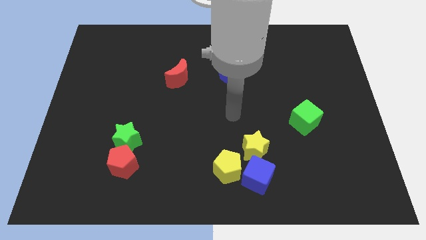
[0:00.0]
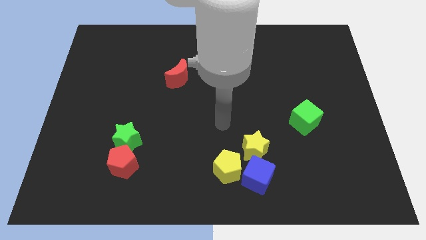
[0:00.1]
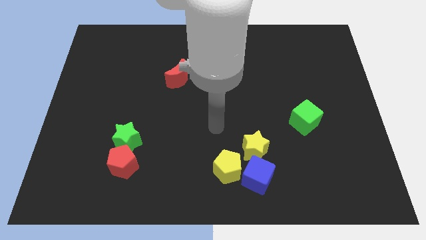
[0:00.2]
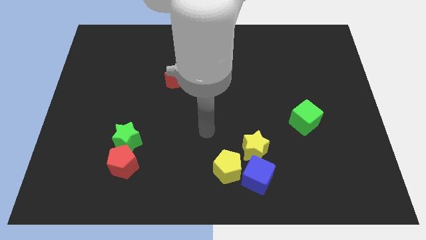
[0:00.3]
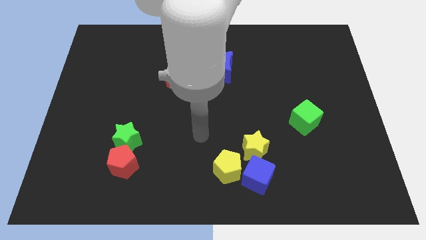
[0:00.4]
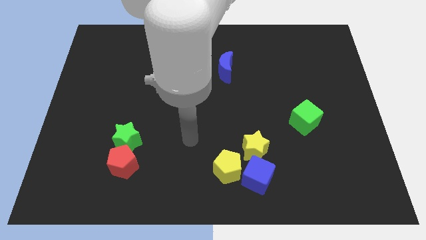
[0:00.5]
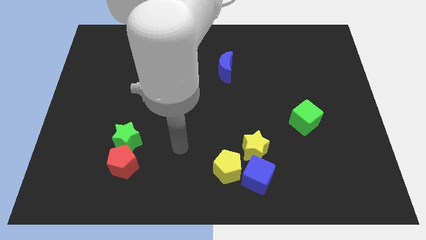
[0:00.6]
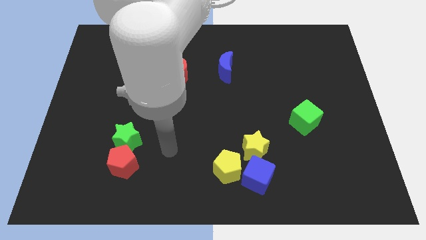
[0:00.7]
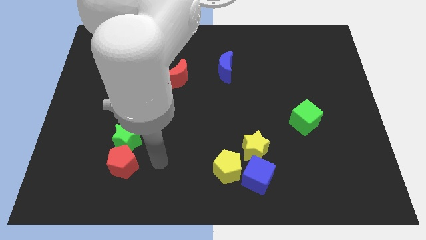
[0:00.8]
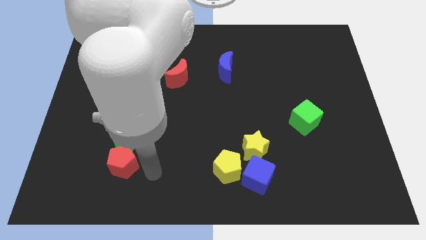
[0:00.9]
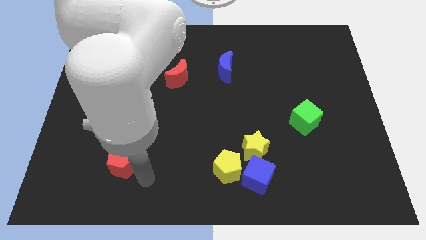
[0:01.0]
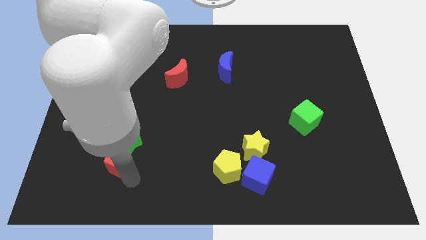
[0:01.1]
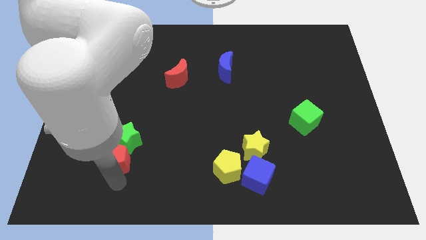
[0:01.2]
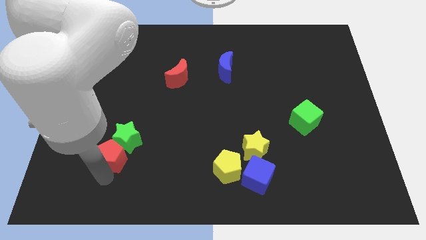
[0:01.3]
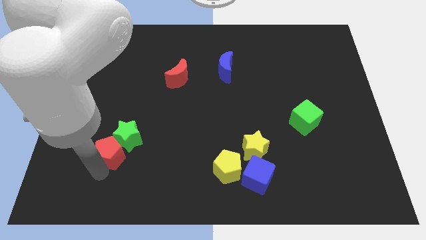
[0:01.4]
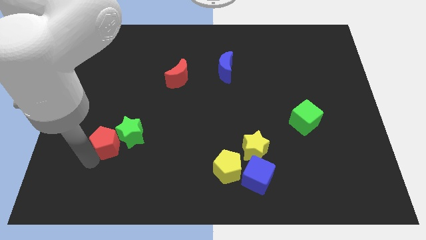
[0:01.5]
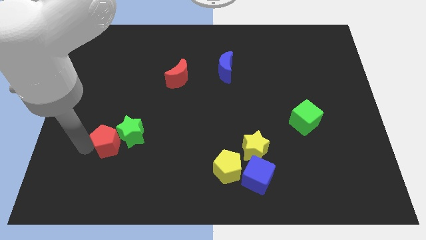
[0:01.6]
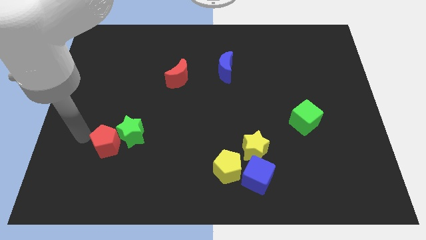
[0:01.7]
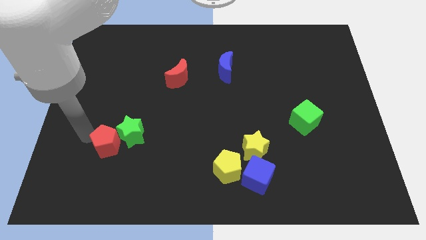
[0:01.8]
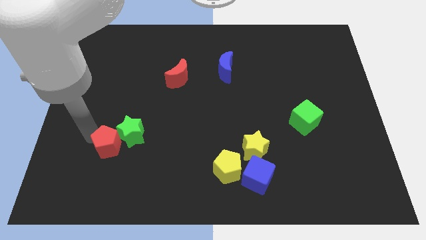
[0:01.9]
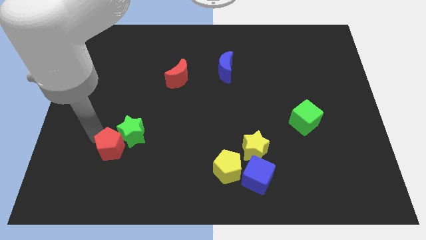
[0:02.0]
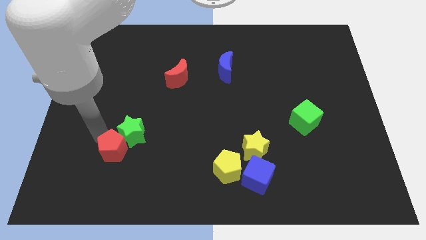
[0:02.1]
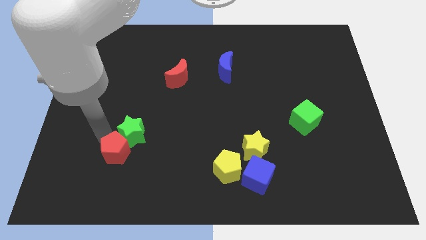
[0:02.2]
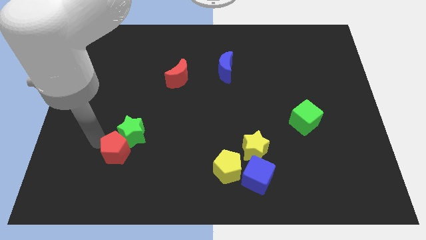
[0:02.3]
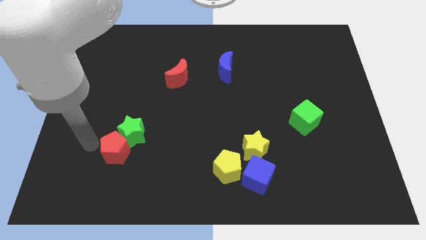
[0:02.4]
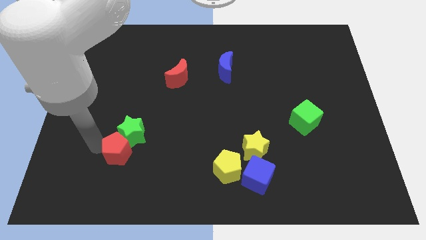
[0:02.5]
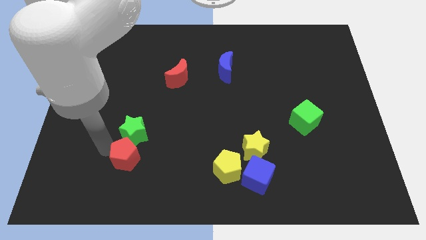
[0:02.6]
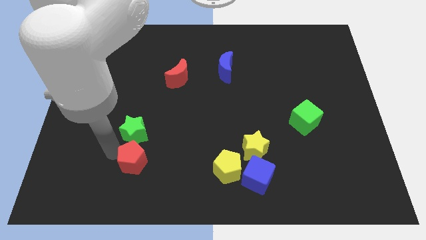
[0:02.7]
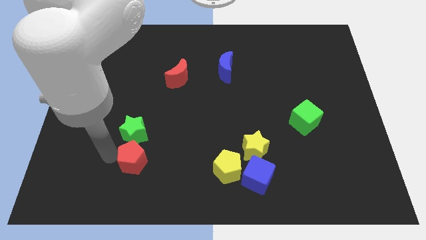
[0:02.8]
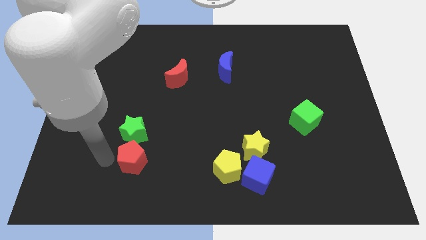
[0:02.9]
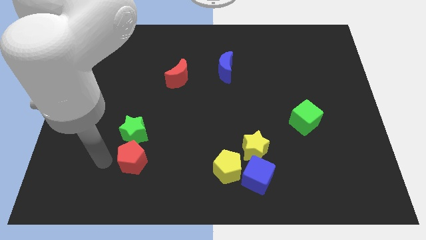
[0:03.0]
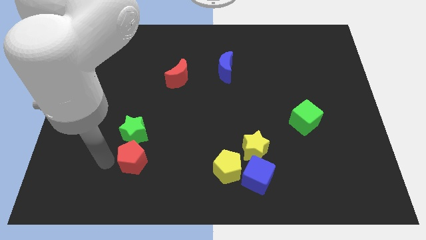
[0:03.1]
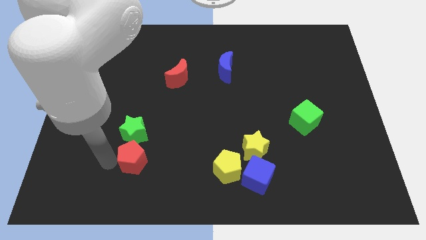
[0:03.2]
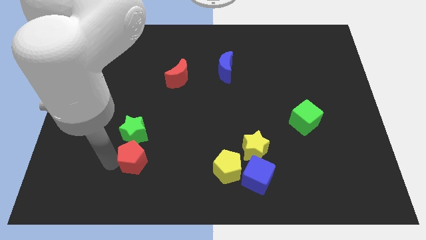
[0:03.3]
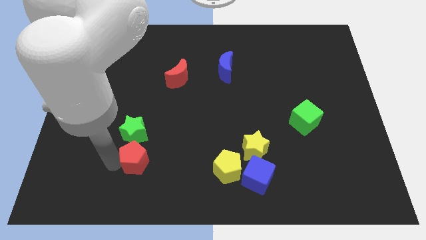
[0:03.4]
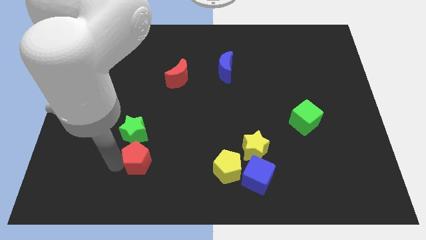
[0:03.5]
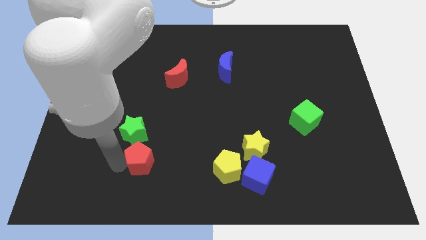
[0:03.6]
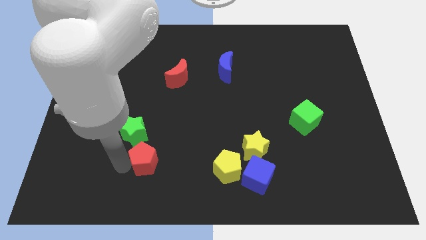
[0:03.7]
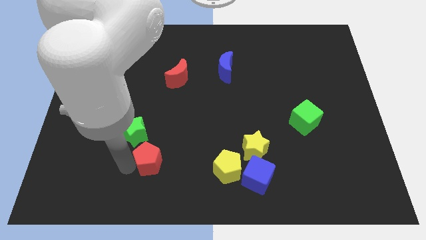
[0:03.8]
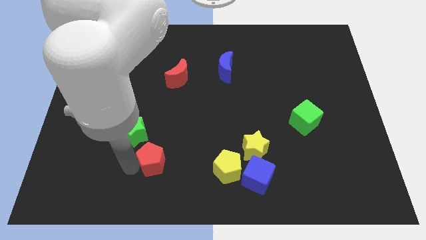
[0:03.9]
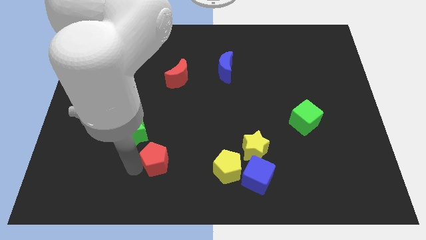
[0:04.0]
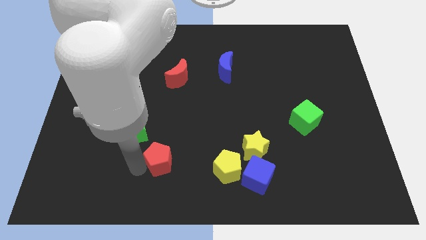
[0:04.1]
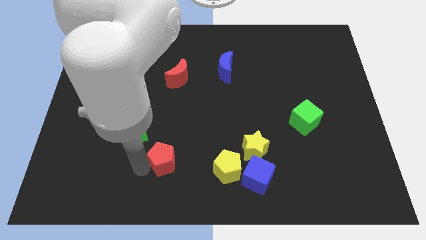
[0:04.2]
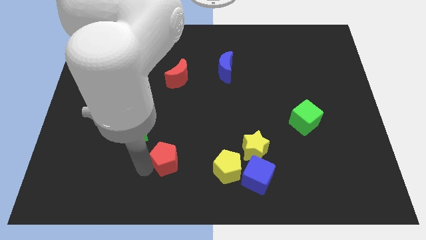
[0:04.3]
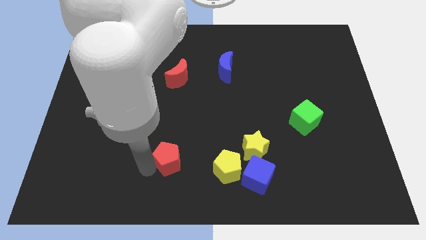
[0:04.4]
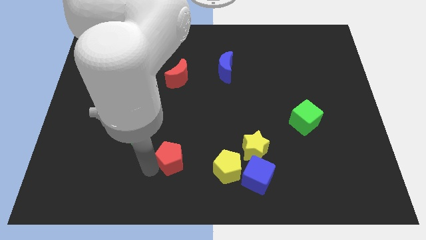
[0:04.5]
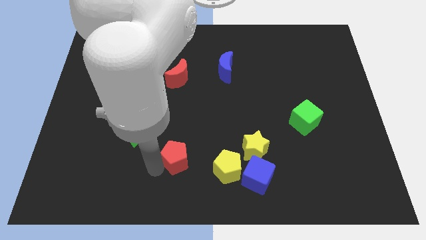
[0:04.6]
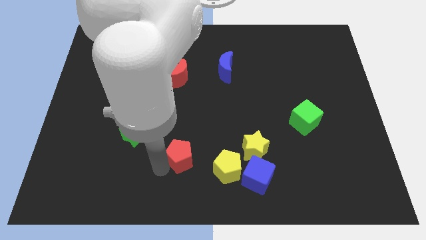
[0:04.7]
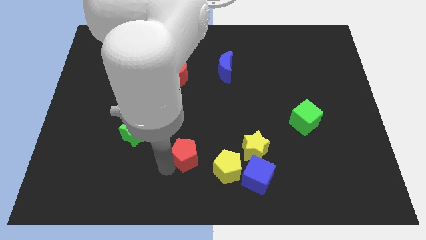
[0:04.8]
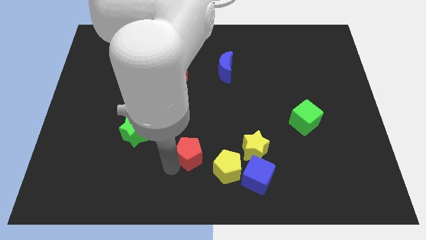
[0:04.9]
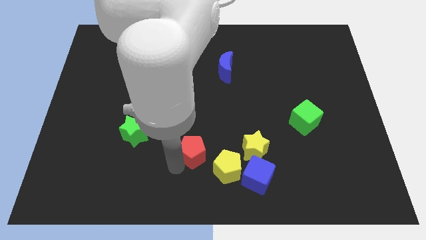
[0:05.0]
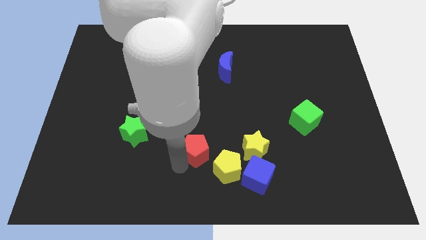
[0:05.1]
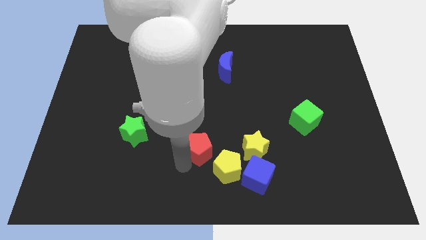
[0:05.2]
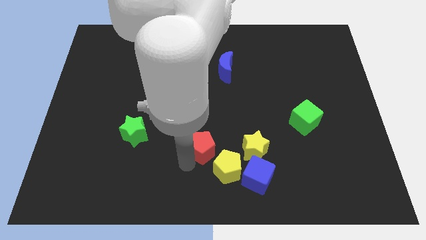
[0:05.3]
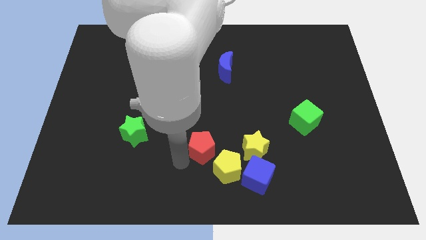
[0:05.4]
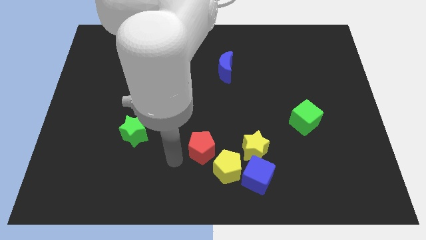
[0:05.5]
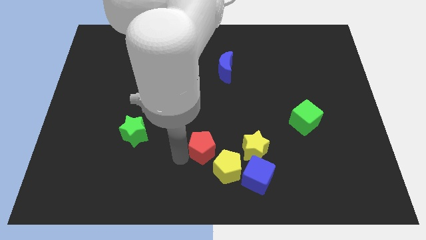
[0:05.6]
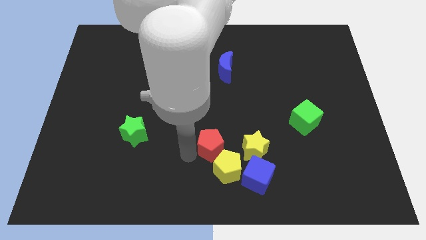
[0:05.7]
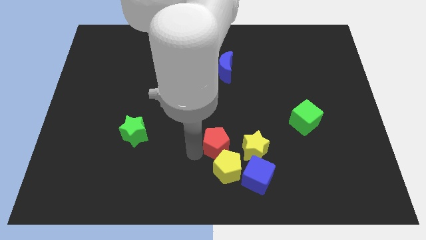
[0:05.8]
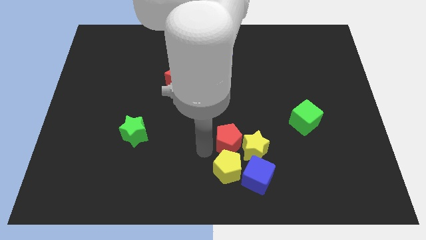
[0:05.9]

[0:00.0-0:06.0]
slide the red pentagon to the right

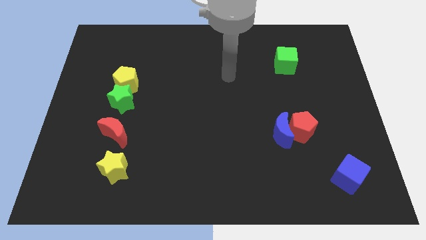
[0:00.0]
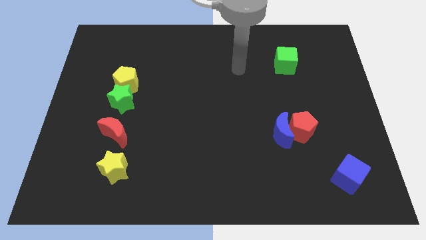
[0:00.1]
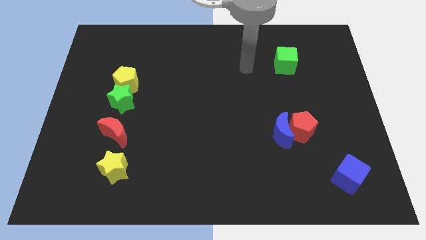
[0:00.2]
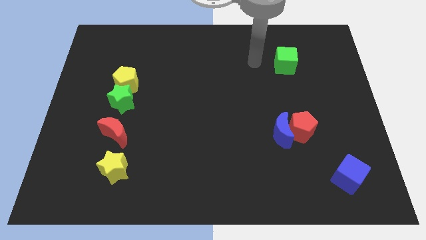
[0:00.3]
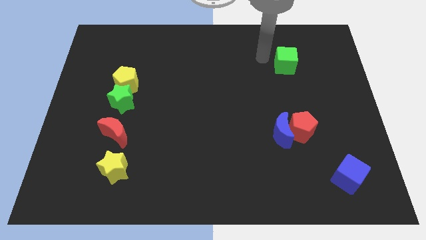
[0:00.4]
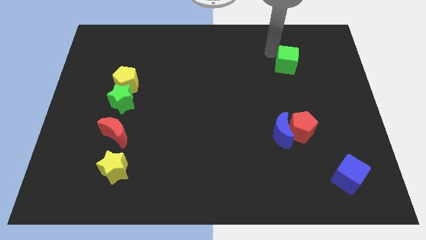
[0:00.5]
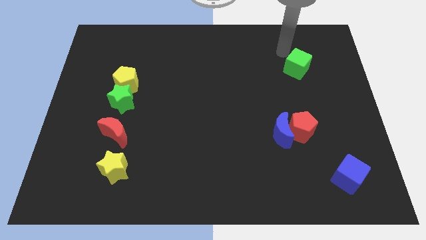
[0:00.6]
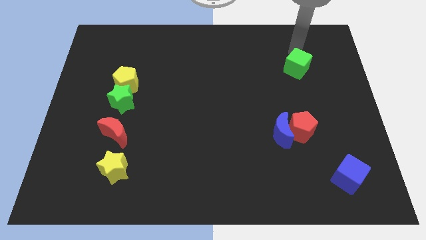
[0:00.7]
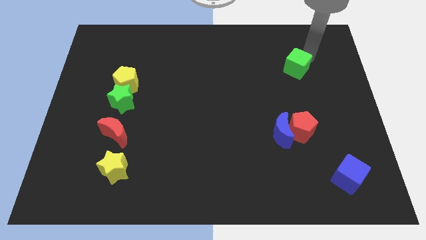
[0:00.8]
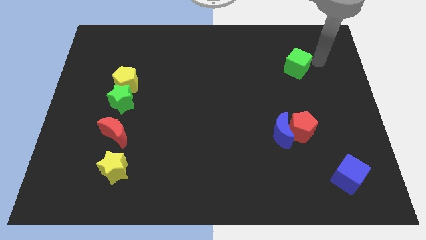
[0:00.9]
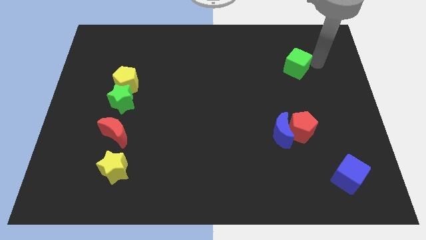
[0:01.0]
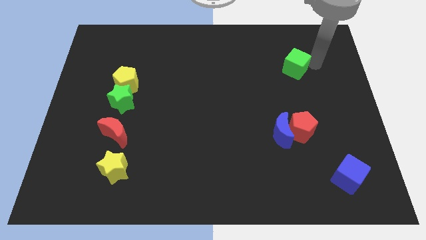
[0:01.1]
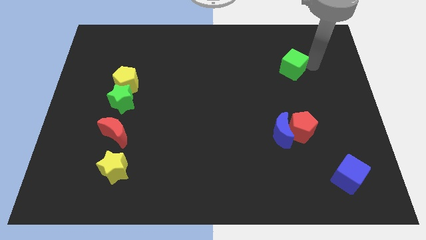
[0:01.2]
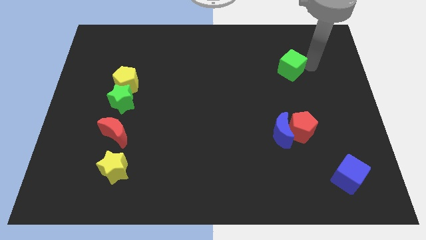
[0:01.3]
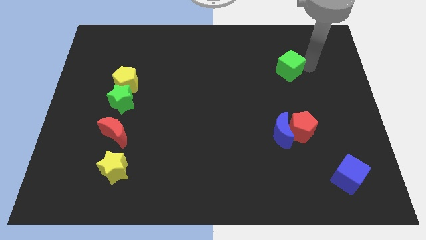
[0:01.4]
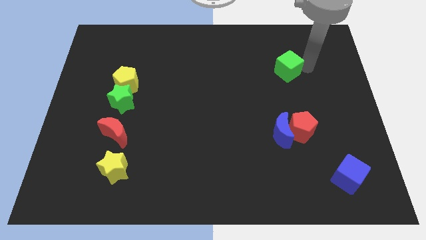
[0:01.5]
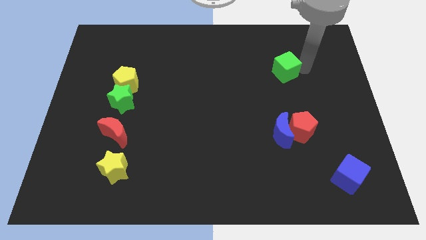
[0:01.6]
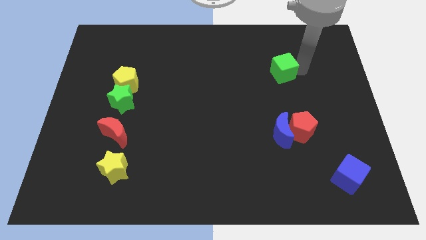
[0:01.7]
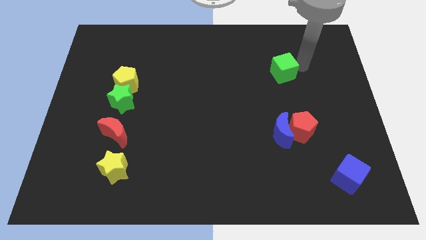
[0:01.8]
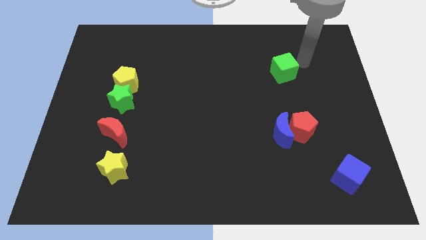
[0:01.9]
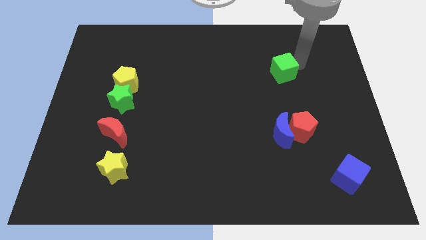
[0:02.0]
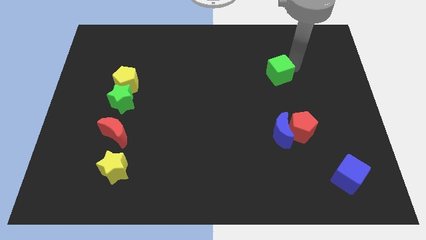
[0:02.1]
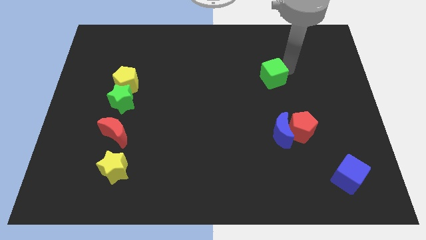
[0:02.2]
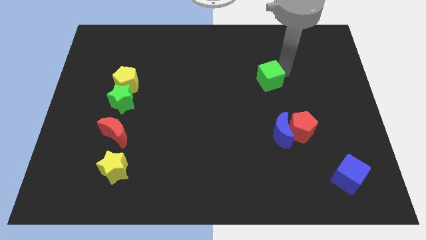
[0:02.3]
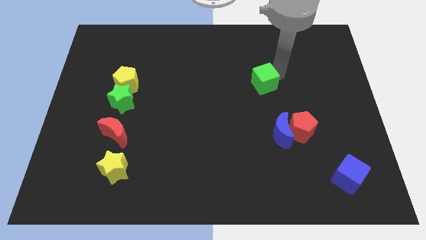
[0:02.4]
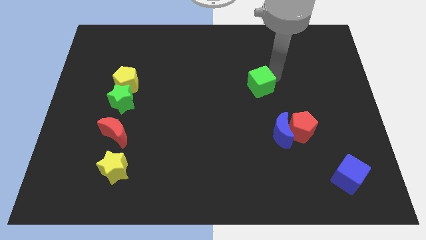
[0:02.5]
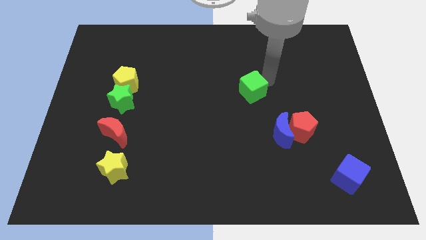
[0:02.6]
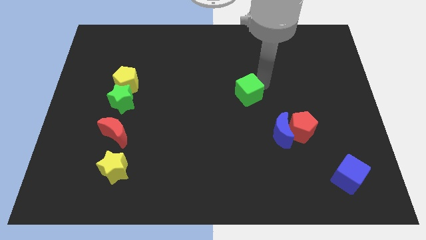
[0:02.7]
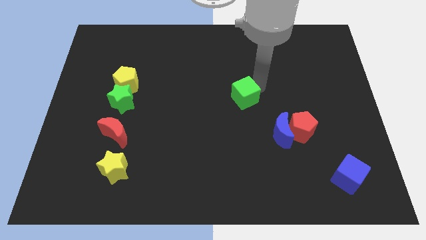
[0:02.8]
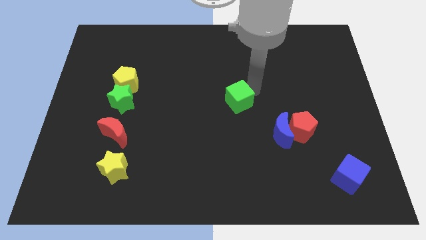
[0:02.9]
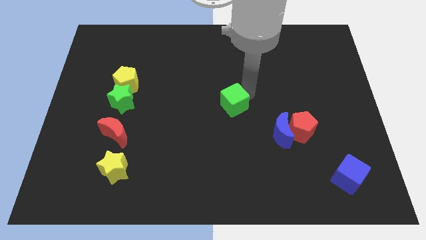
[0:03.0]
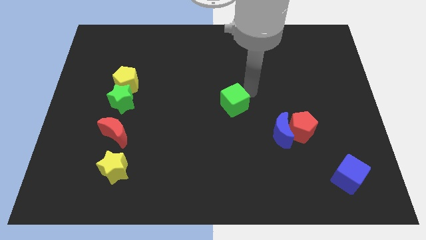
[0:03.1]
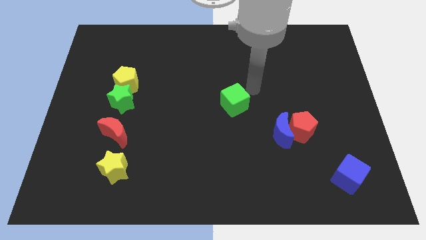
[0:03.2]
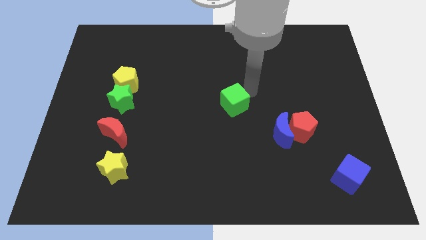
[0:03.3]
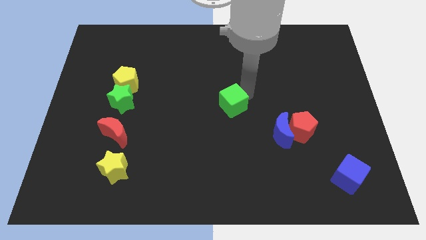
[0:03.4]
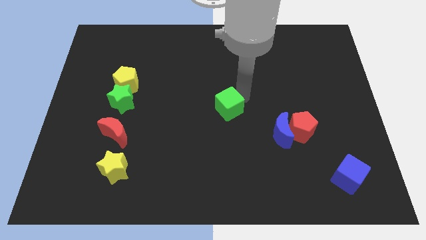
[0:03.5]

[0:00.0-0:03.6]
push the green cube downwards and to the left diagonally
